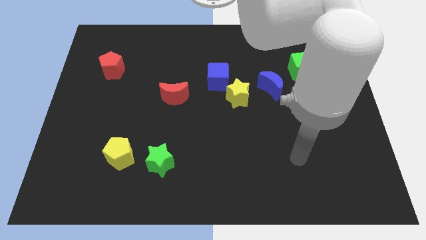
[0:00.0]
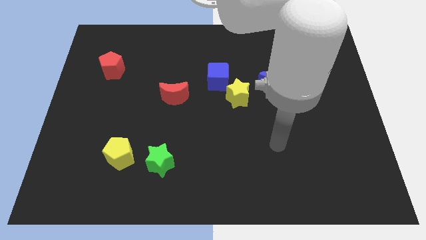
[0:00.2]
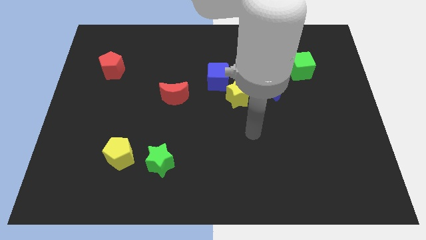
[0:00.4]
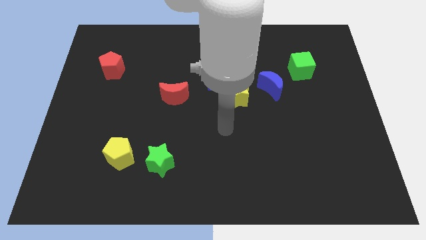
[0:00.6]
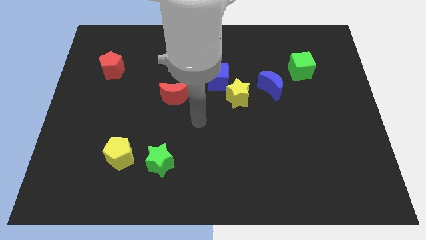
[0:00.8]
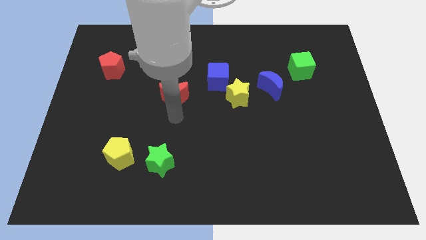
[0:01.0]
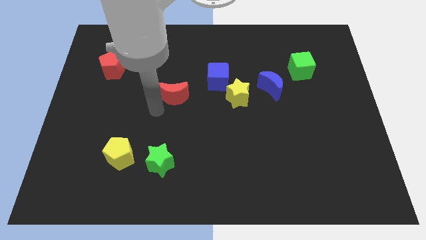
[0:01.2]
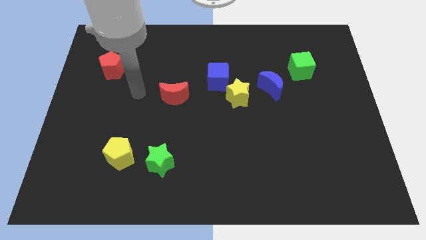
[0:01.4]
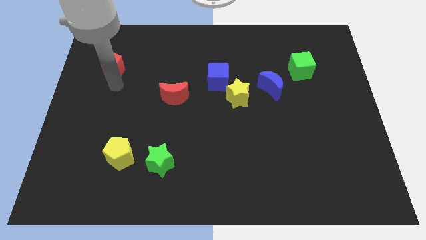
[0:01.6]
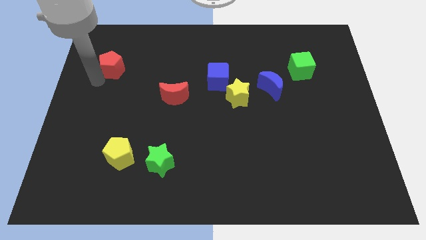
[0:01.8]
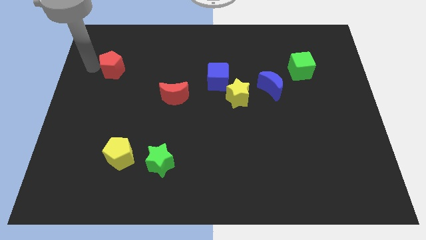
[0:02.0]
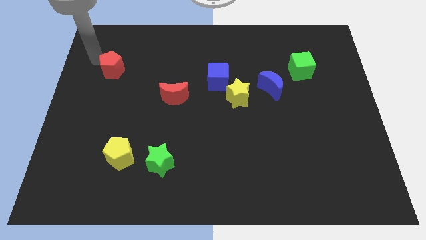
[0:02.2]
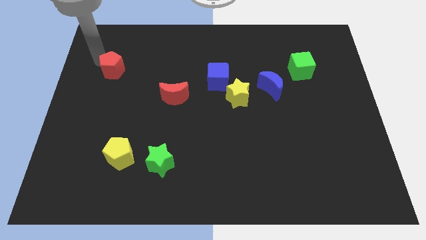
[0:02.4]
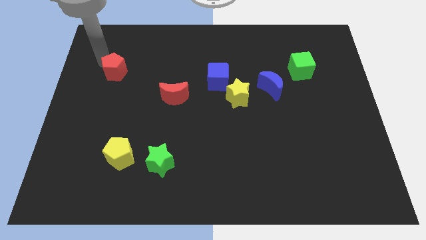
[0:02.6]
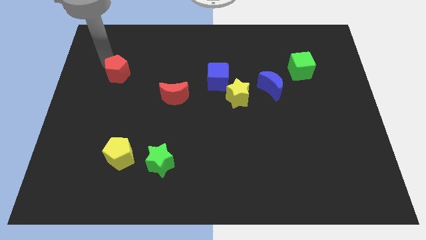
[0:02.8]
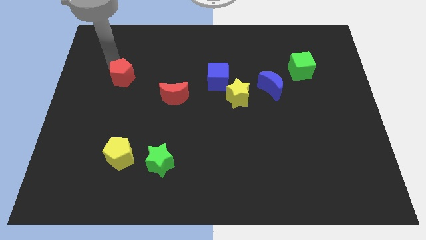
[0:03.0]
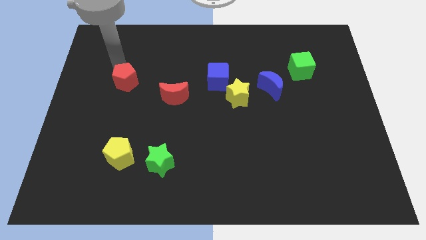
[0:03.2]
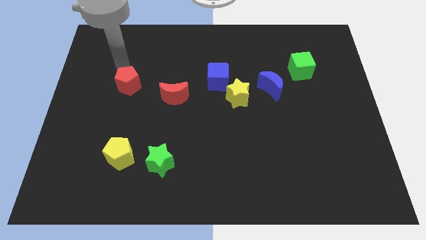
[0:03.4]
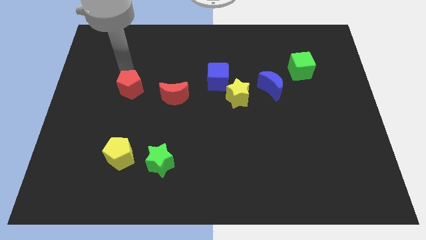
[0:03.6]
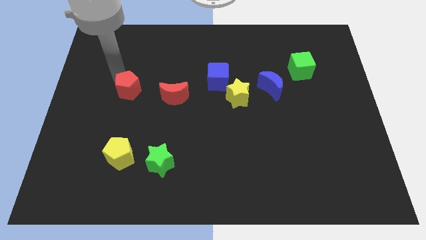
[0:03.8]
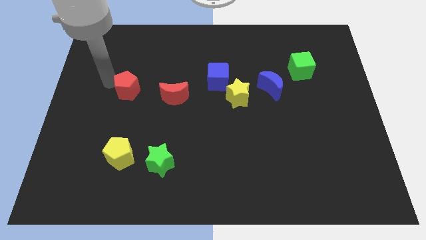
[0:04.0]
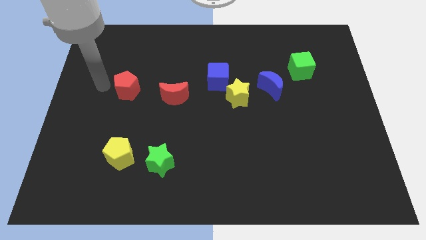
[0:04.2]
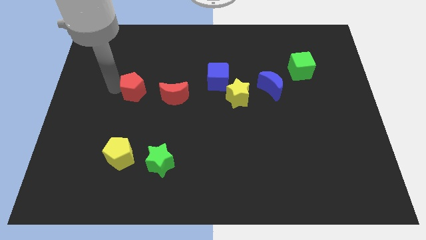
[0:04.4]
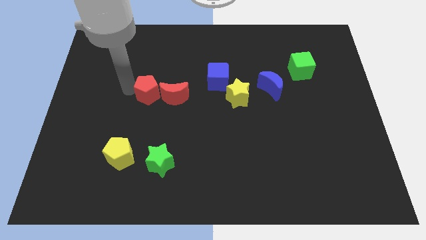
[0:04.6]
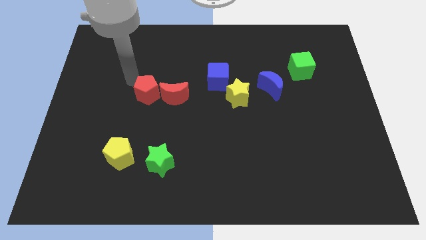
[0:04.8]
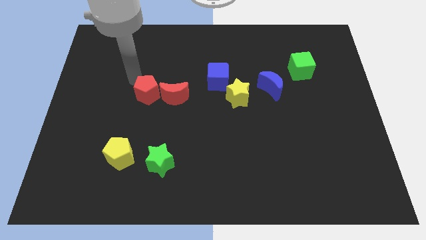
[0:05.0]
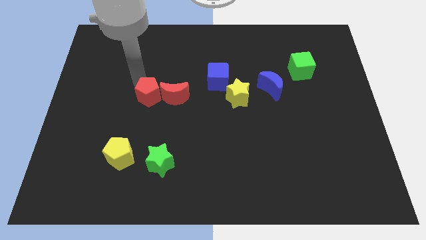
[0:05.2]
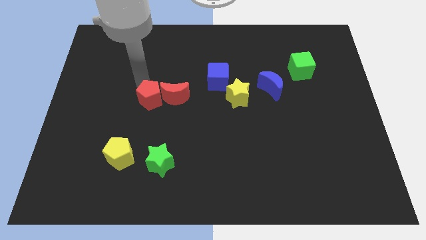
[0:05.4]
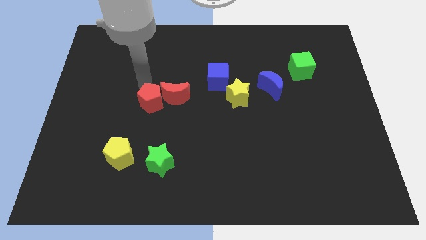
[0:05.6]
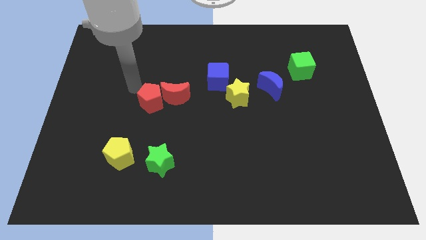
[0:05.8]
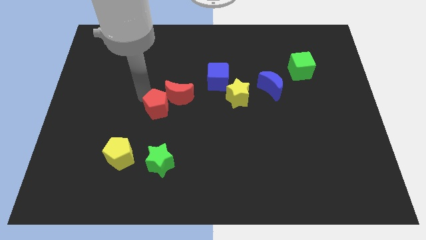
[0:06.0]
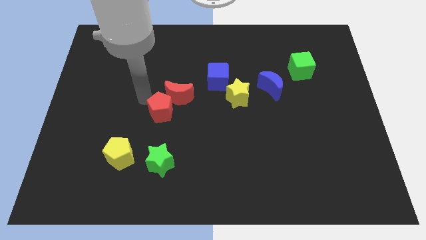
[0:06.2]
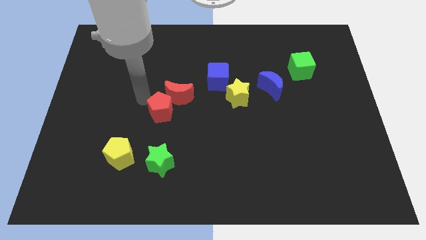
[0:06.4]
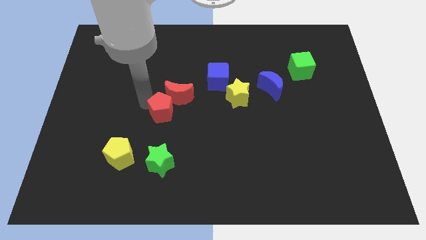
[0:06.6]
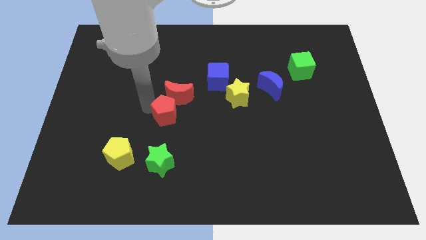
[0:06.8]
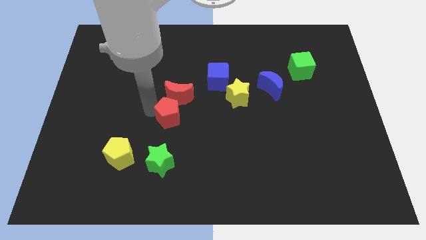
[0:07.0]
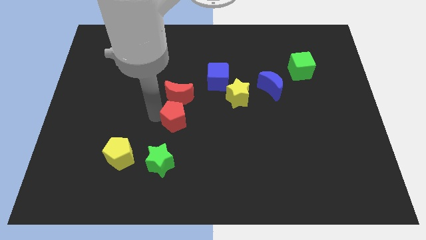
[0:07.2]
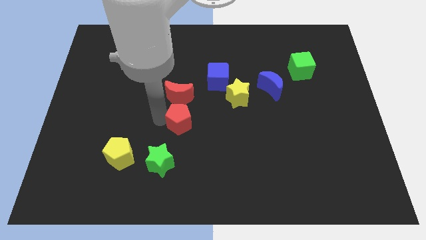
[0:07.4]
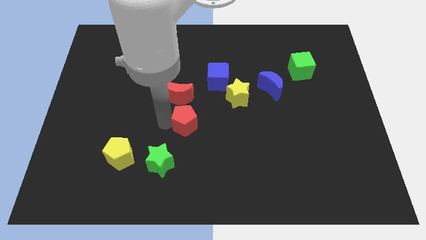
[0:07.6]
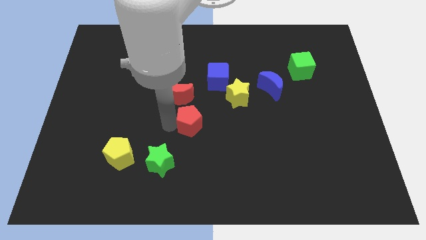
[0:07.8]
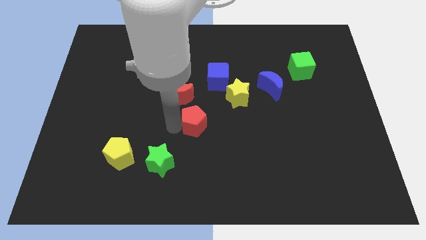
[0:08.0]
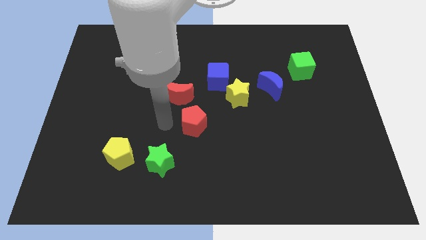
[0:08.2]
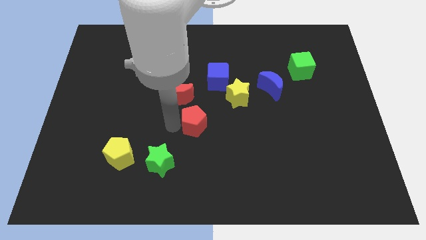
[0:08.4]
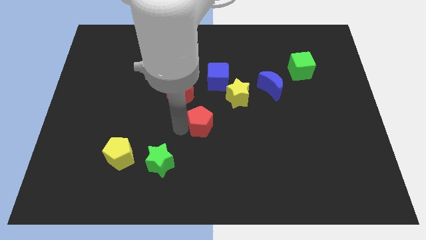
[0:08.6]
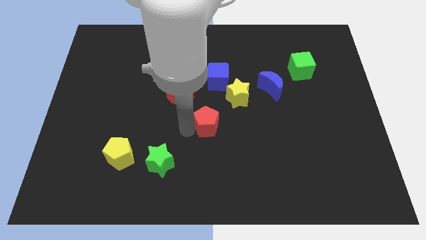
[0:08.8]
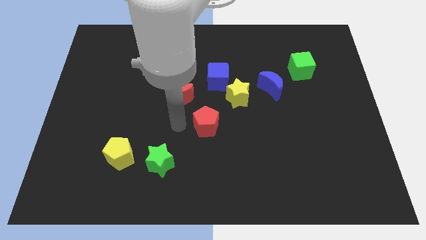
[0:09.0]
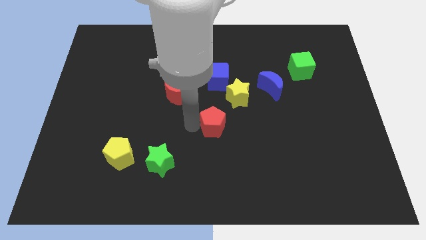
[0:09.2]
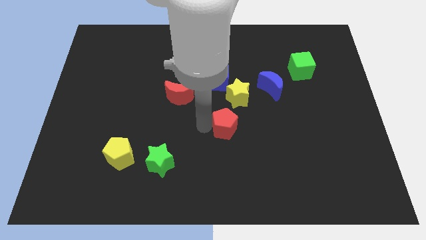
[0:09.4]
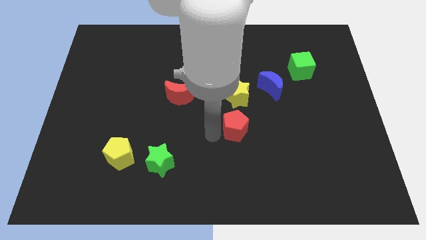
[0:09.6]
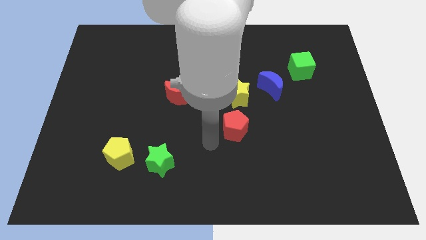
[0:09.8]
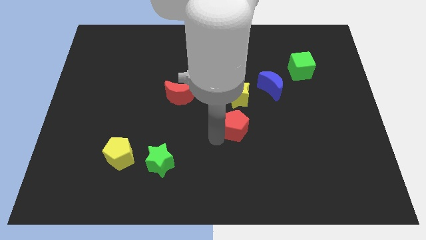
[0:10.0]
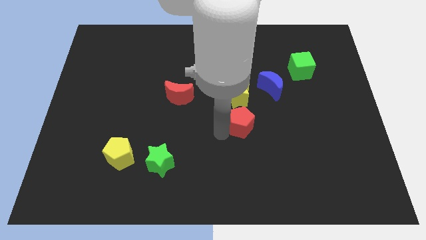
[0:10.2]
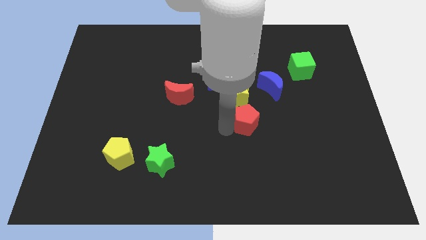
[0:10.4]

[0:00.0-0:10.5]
push the red pentagon diagonally down and to the right of the yellow star

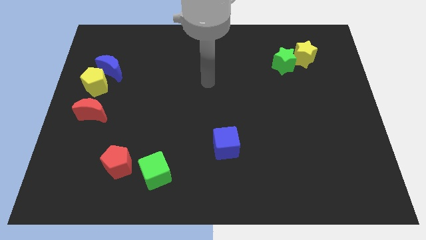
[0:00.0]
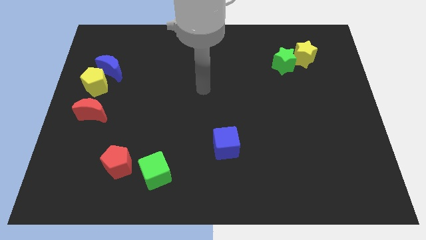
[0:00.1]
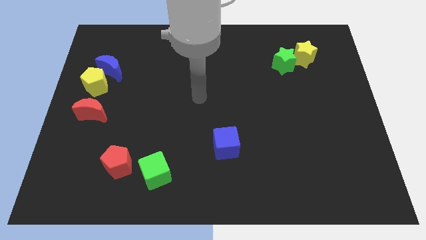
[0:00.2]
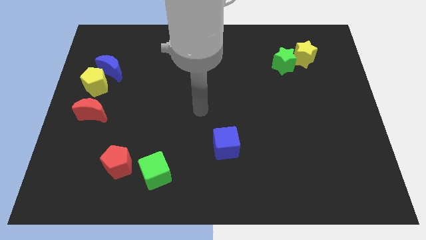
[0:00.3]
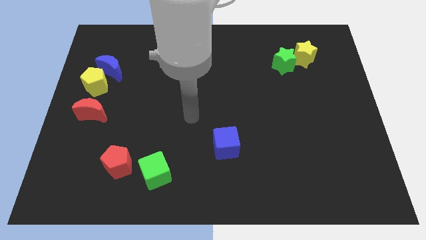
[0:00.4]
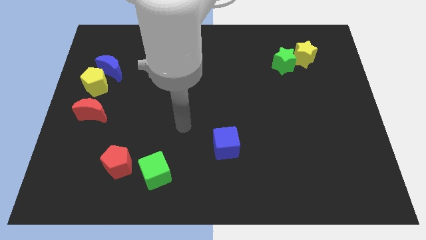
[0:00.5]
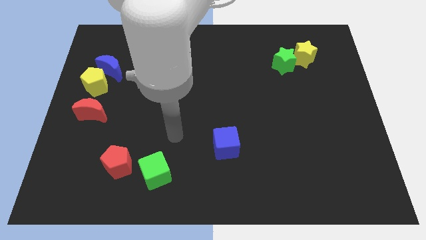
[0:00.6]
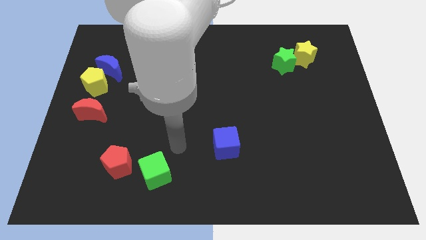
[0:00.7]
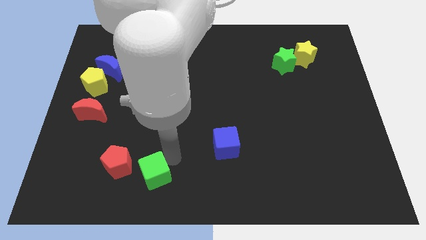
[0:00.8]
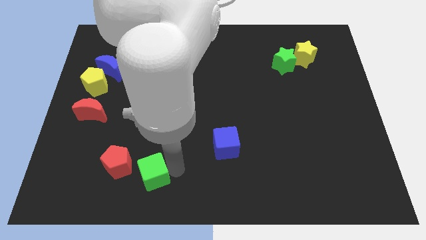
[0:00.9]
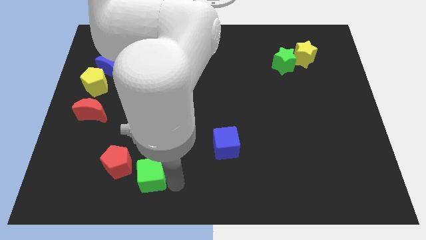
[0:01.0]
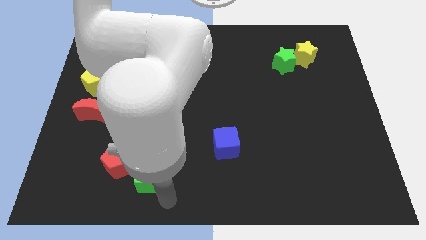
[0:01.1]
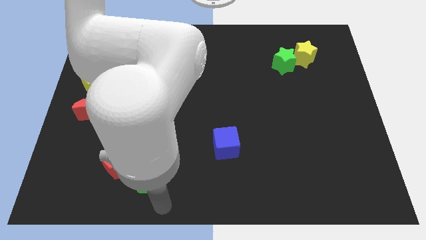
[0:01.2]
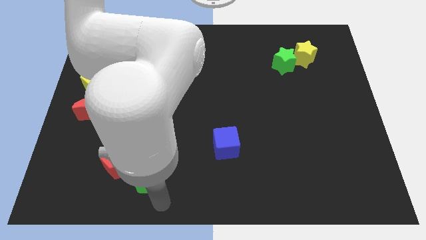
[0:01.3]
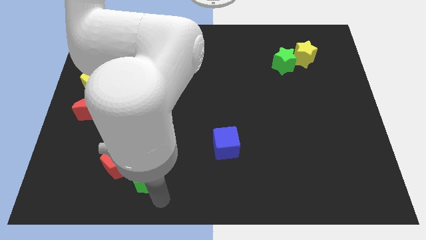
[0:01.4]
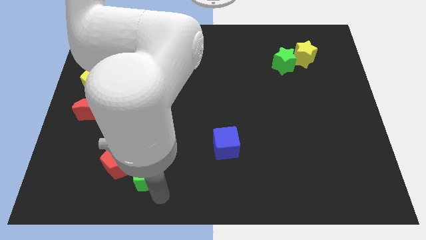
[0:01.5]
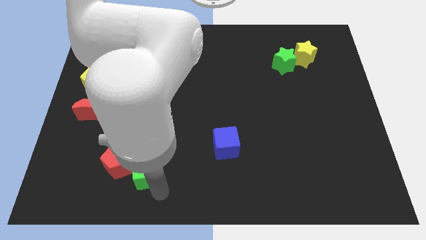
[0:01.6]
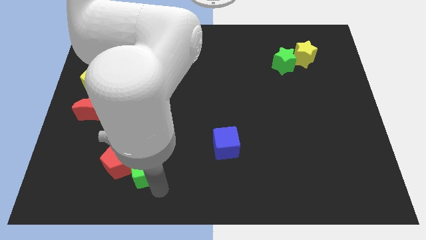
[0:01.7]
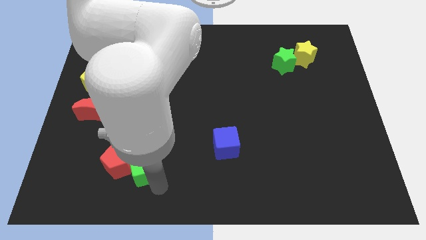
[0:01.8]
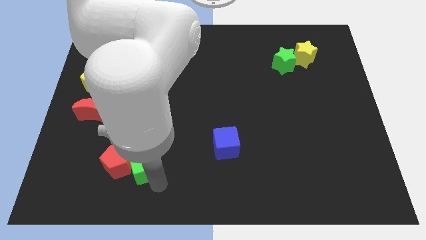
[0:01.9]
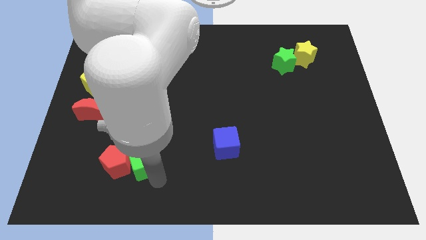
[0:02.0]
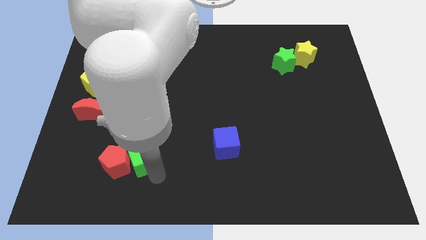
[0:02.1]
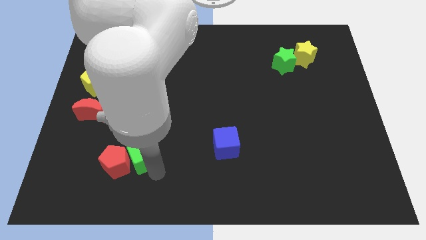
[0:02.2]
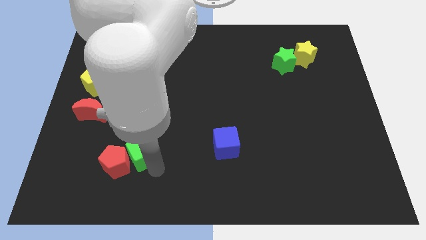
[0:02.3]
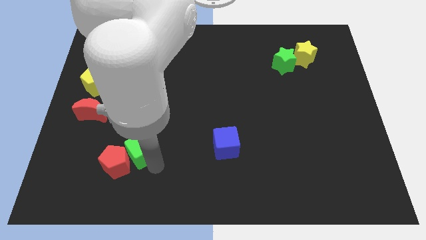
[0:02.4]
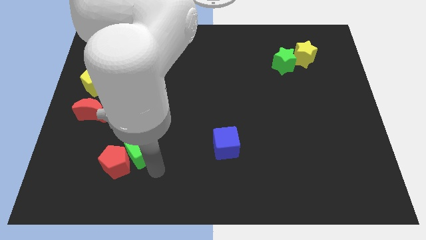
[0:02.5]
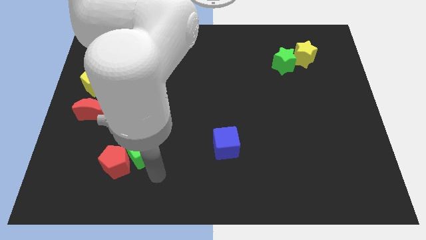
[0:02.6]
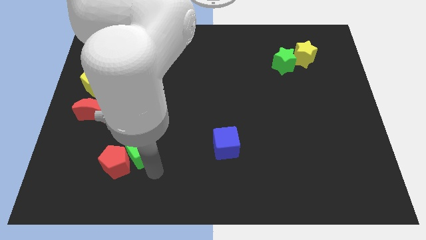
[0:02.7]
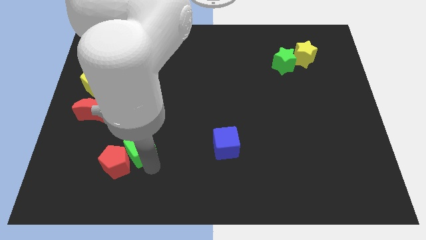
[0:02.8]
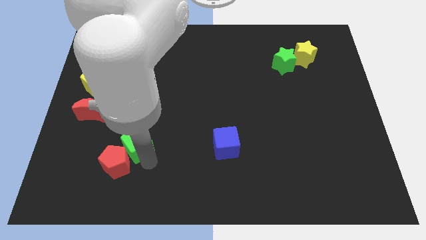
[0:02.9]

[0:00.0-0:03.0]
push the green cube above the red pentagon
